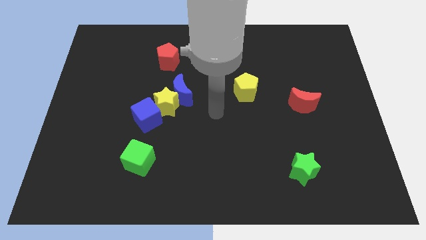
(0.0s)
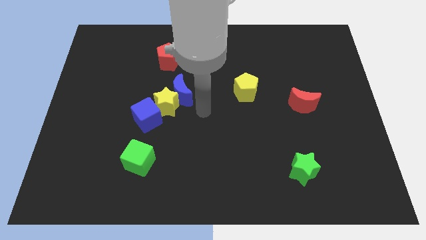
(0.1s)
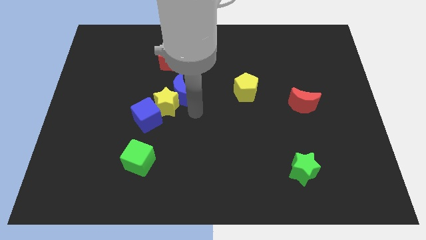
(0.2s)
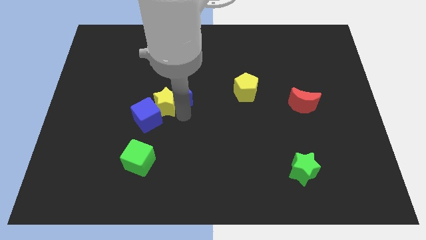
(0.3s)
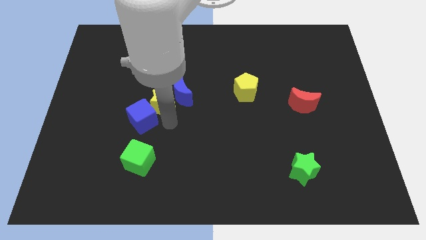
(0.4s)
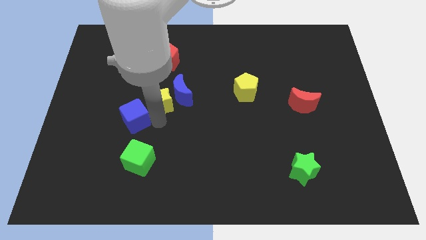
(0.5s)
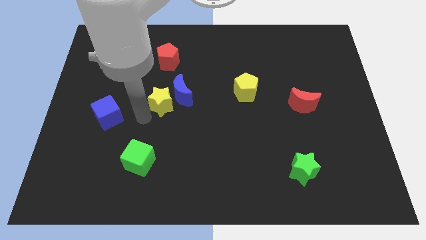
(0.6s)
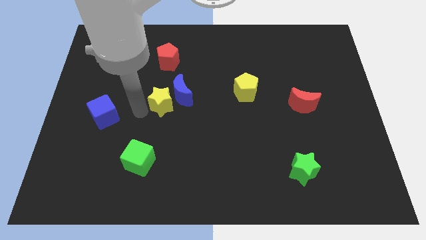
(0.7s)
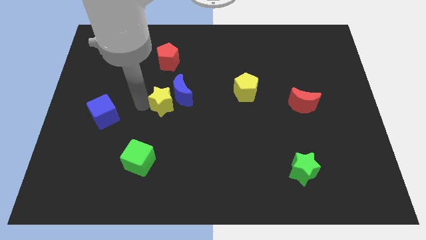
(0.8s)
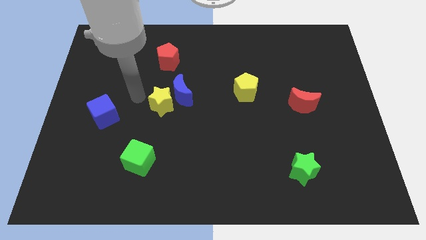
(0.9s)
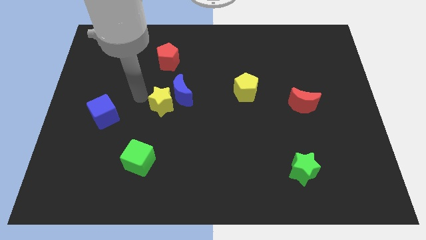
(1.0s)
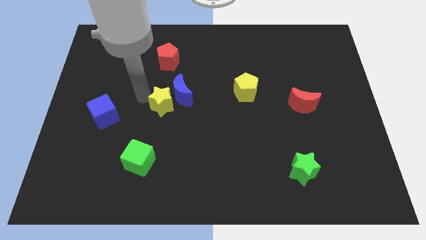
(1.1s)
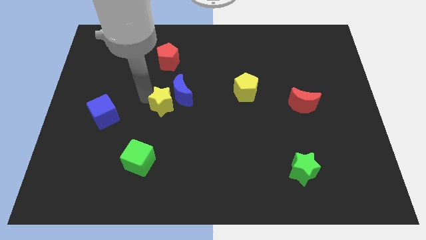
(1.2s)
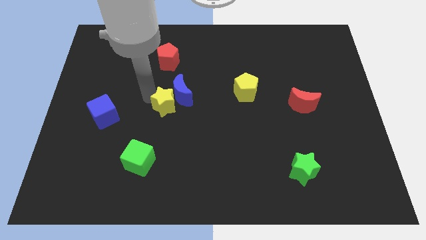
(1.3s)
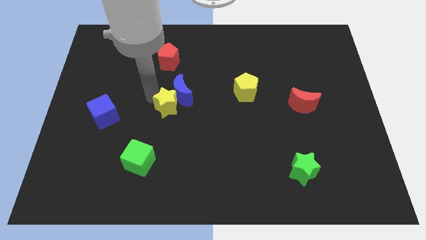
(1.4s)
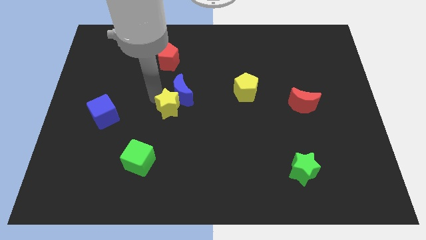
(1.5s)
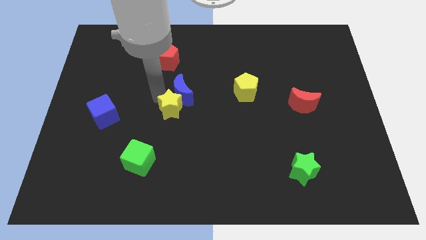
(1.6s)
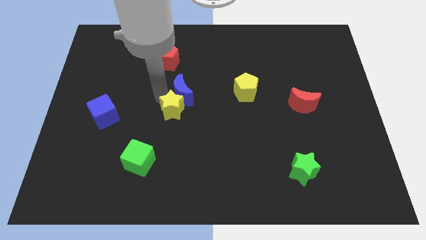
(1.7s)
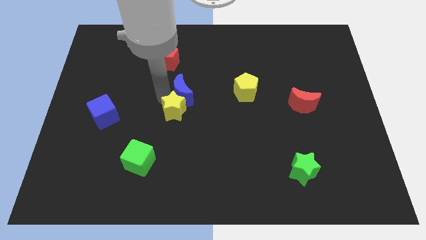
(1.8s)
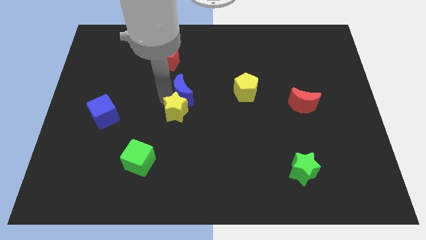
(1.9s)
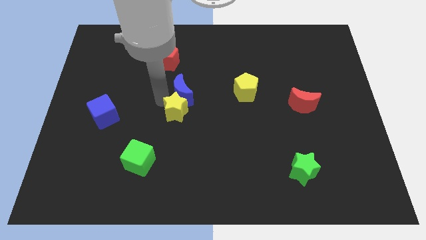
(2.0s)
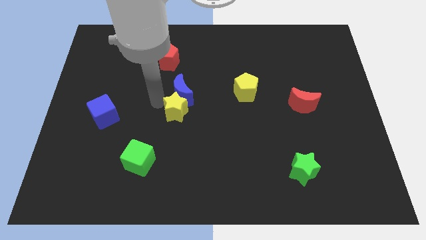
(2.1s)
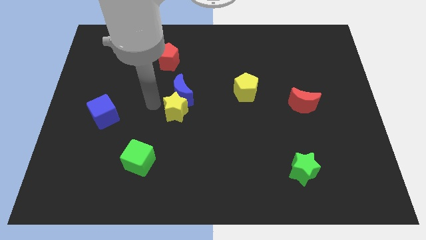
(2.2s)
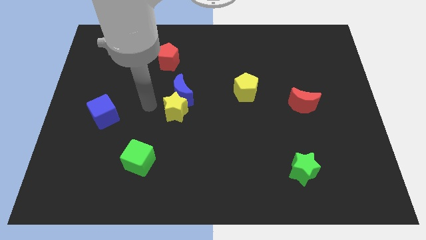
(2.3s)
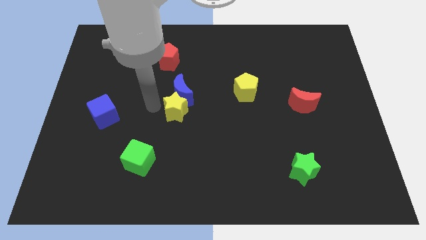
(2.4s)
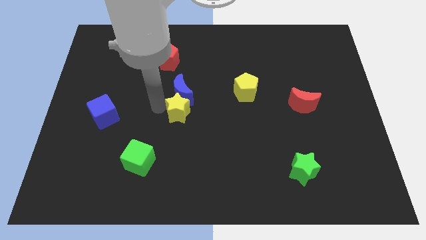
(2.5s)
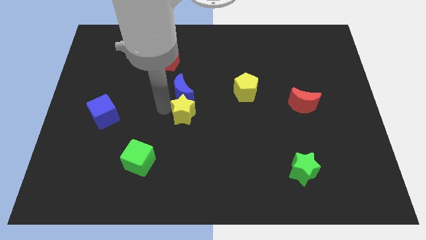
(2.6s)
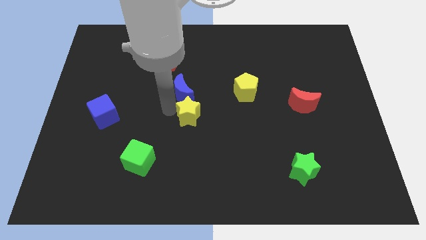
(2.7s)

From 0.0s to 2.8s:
move the yellow star away from the blue moon and blue cube

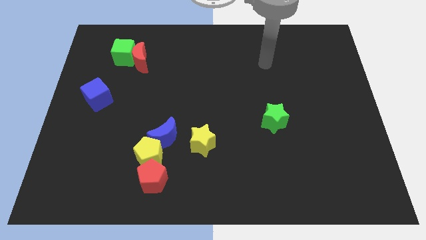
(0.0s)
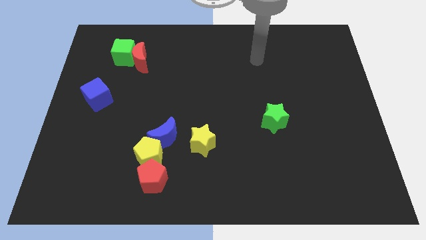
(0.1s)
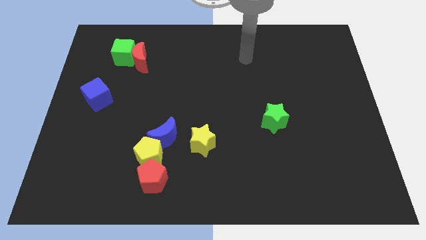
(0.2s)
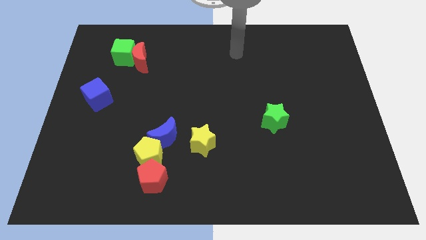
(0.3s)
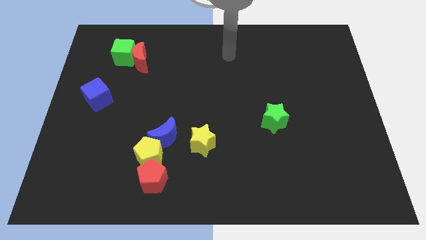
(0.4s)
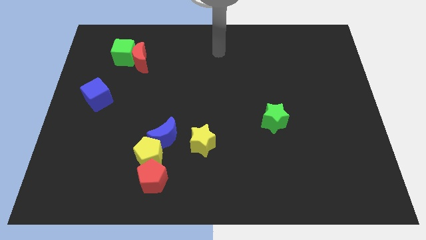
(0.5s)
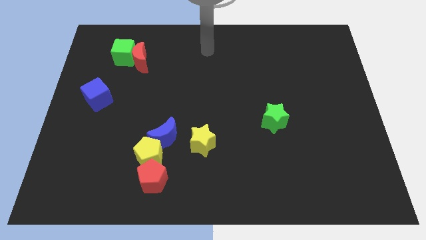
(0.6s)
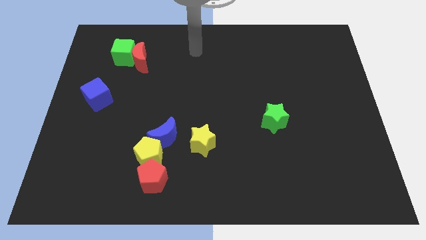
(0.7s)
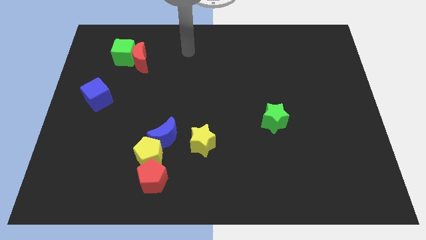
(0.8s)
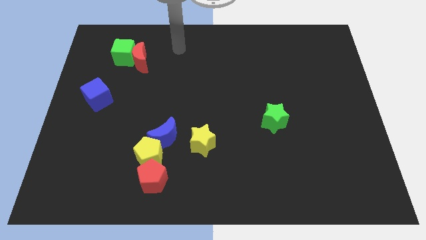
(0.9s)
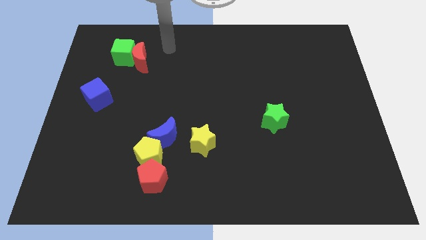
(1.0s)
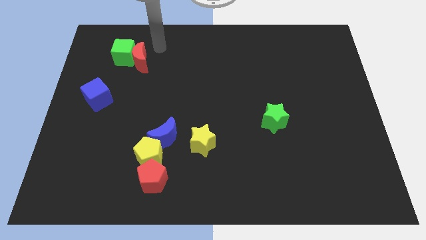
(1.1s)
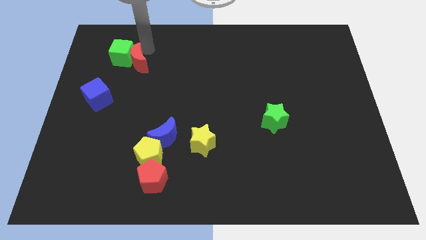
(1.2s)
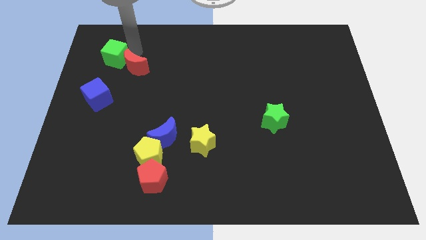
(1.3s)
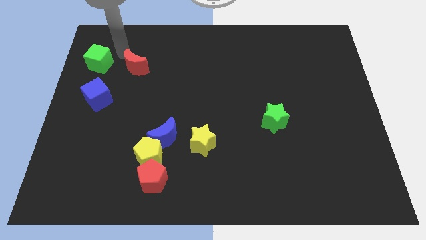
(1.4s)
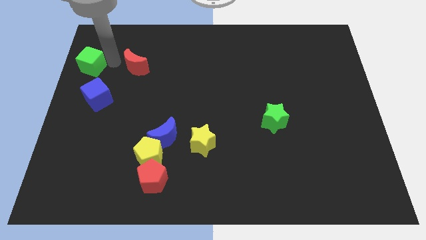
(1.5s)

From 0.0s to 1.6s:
move the red moon away from the green cube

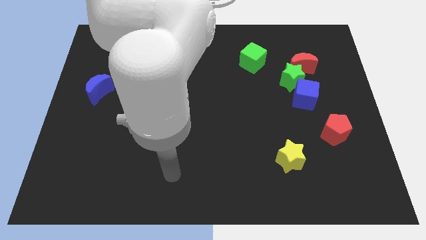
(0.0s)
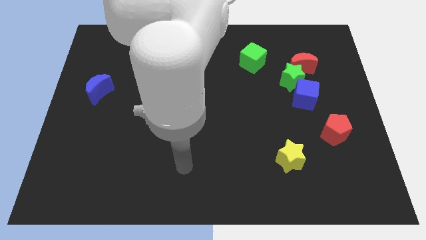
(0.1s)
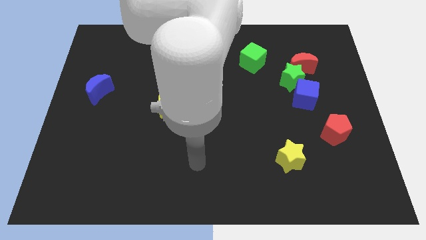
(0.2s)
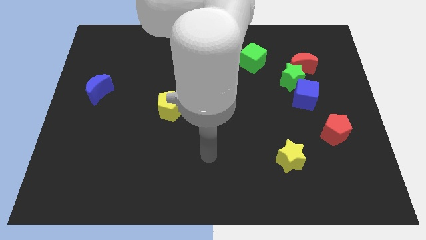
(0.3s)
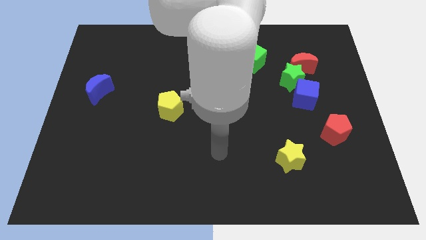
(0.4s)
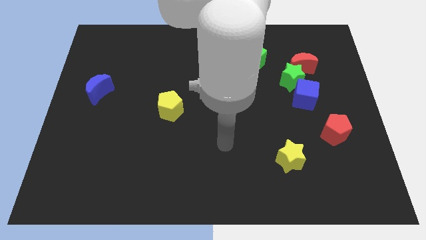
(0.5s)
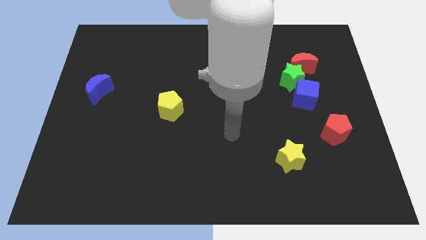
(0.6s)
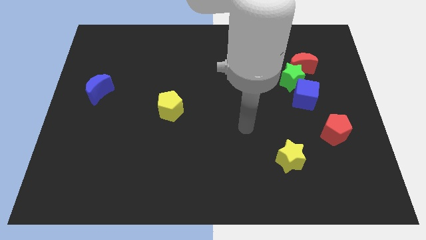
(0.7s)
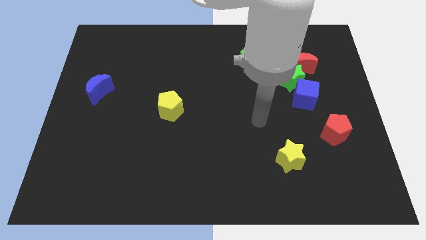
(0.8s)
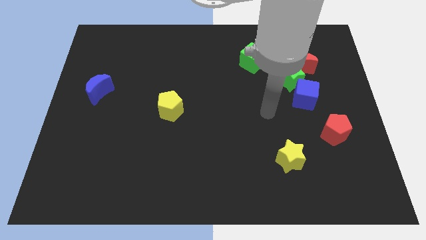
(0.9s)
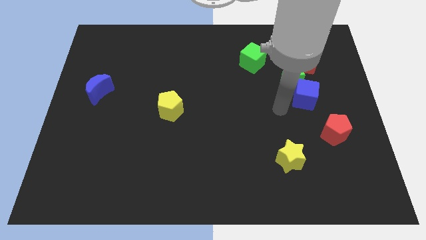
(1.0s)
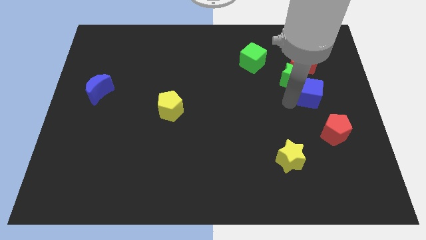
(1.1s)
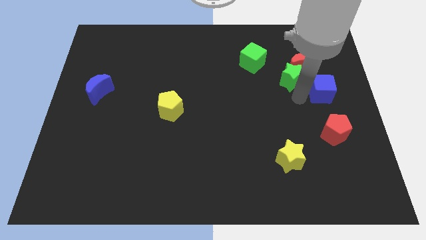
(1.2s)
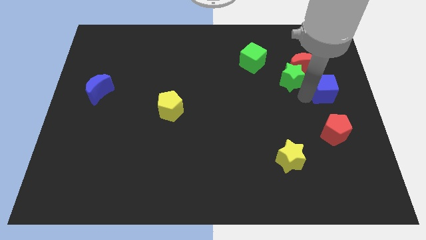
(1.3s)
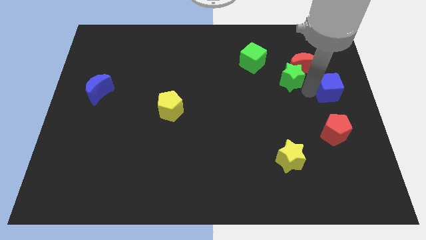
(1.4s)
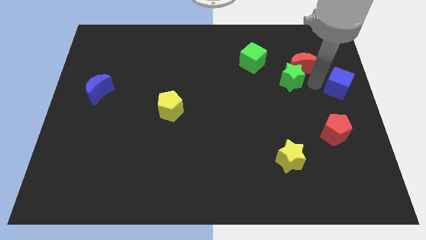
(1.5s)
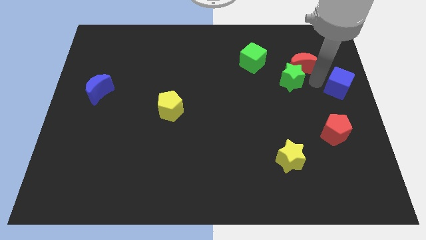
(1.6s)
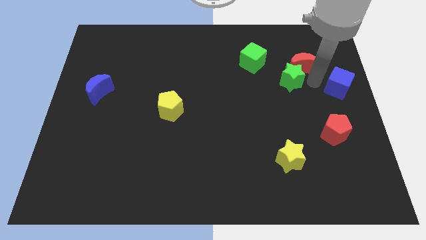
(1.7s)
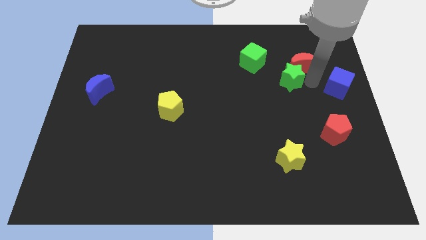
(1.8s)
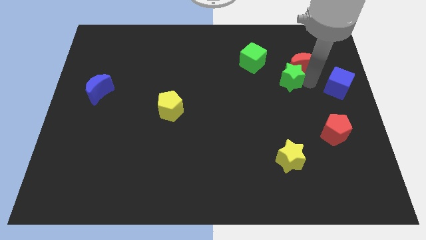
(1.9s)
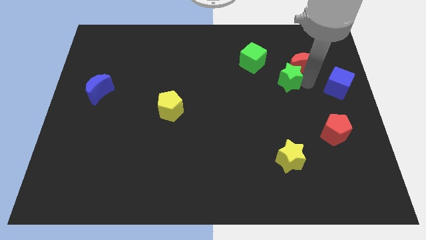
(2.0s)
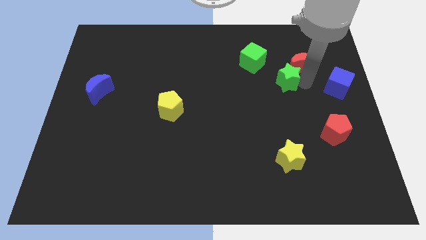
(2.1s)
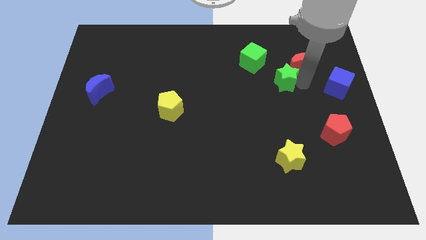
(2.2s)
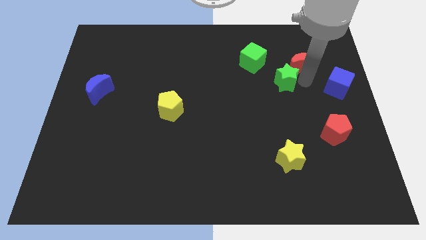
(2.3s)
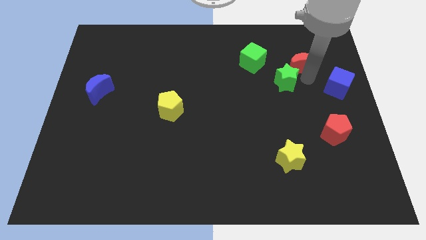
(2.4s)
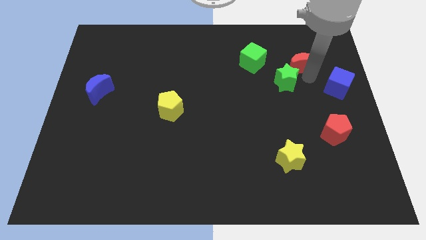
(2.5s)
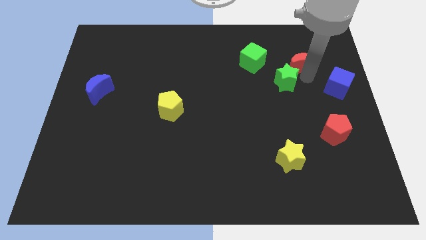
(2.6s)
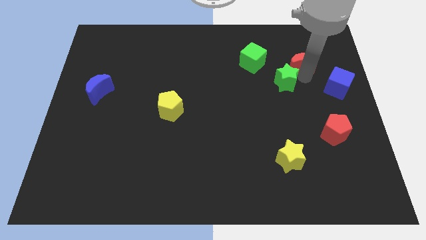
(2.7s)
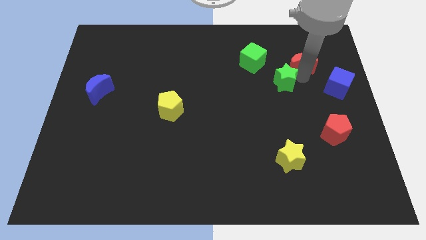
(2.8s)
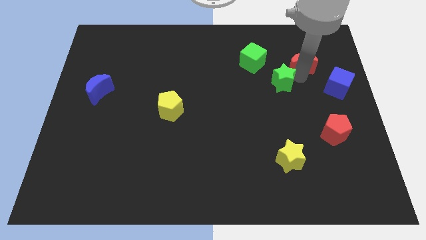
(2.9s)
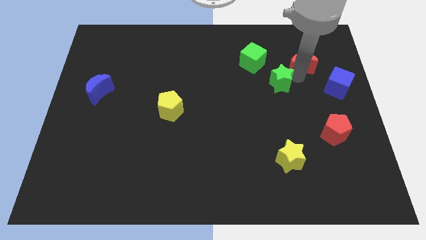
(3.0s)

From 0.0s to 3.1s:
move the green star away from the red moon and blue cube

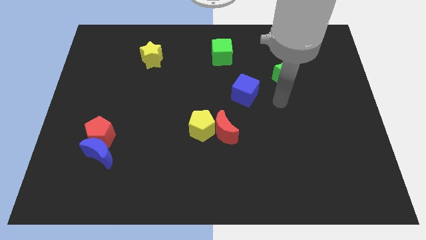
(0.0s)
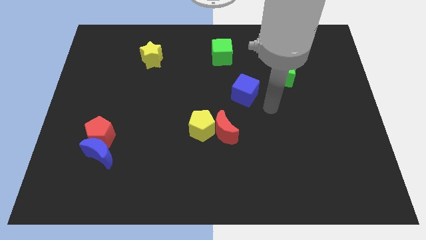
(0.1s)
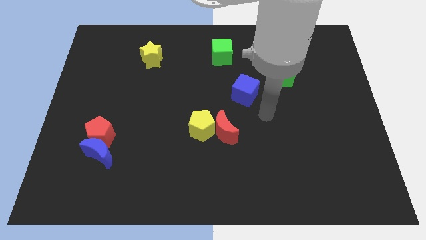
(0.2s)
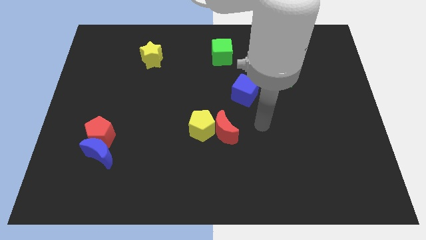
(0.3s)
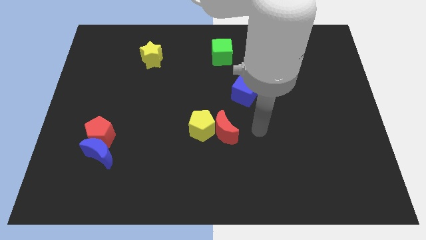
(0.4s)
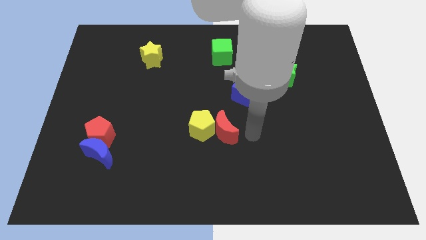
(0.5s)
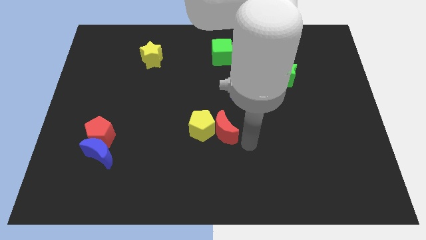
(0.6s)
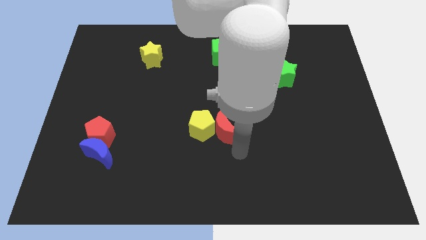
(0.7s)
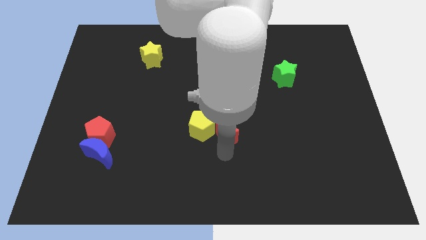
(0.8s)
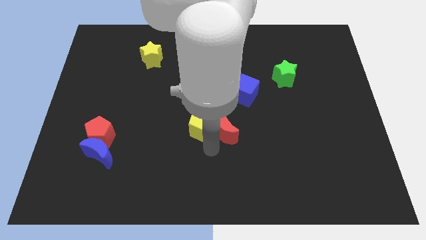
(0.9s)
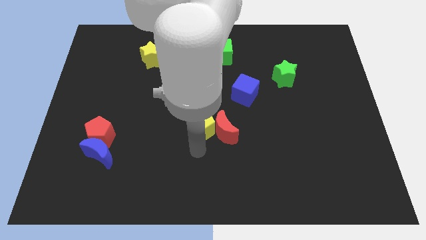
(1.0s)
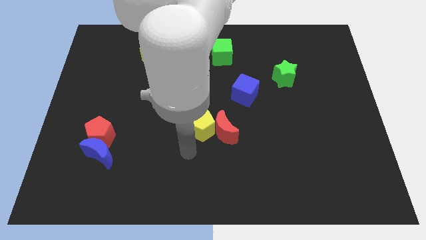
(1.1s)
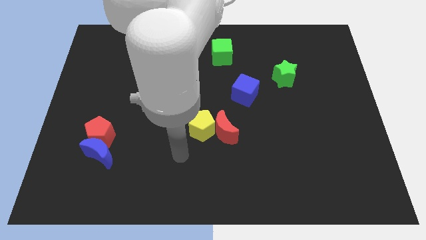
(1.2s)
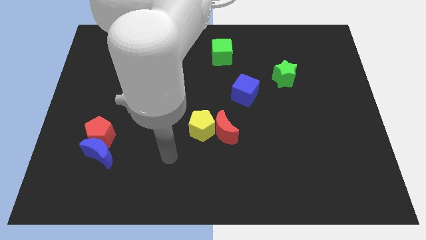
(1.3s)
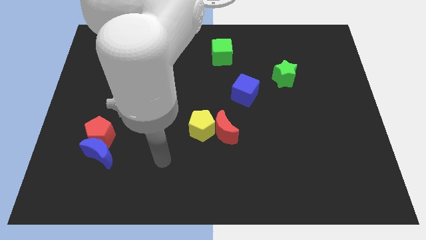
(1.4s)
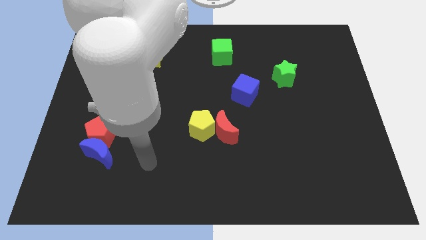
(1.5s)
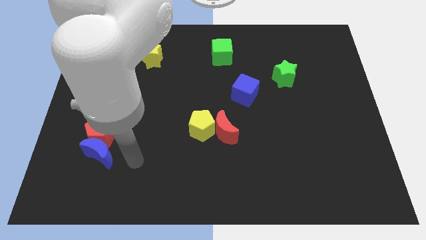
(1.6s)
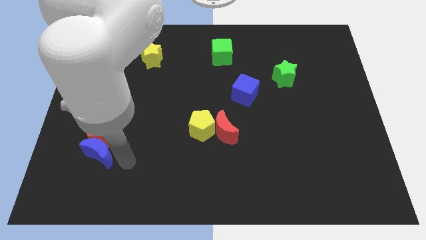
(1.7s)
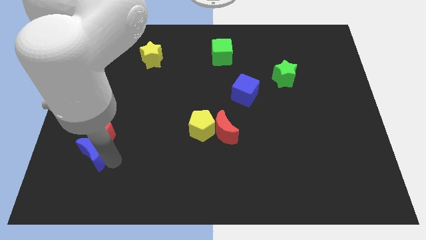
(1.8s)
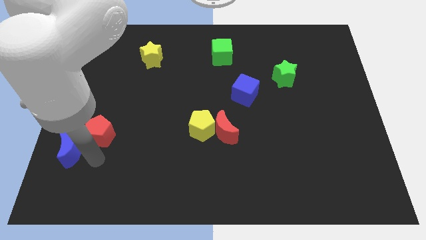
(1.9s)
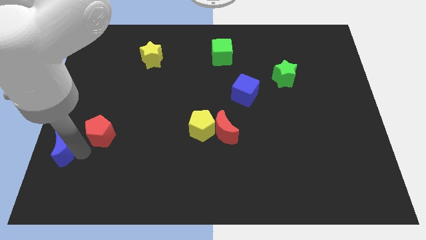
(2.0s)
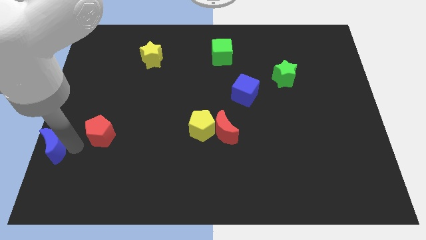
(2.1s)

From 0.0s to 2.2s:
pull the red pentagon apart from the blue moon
